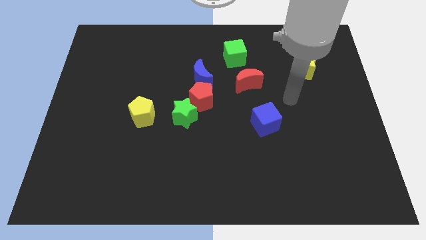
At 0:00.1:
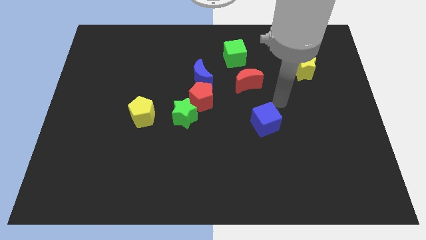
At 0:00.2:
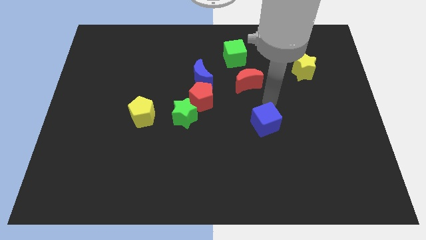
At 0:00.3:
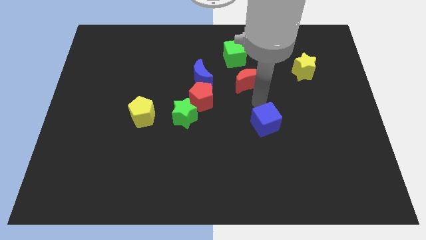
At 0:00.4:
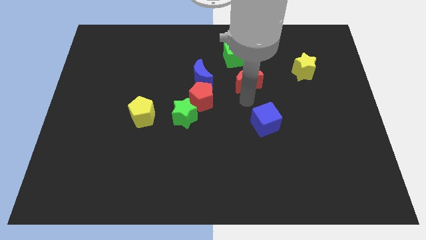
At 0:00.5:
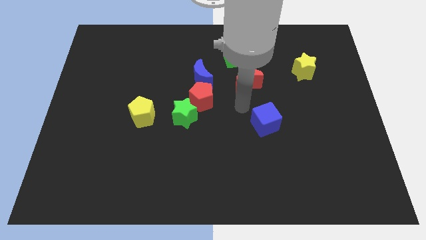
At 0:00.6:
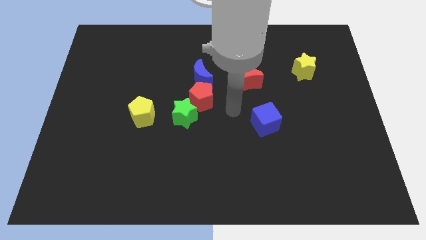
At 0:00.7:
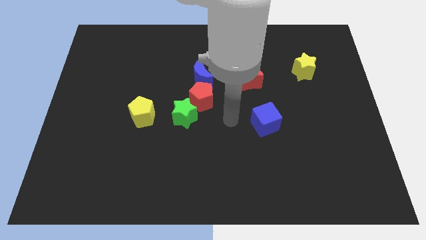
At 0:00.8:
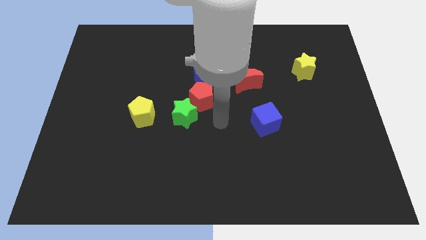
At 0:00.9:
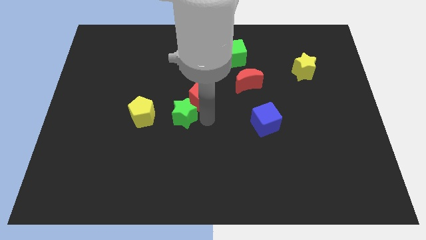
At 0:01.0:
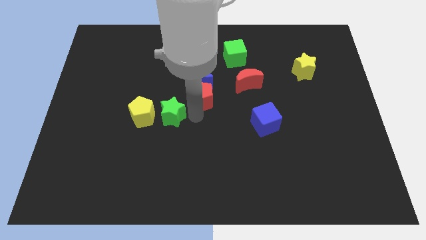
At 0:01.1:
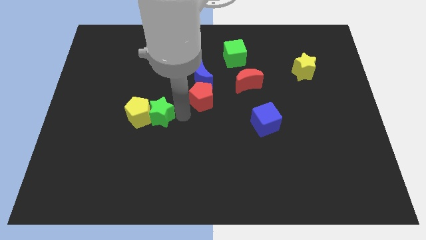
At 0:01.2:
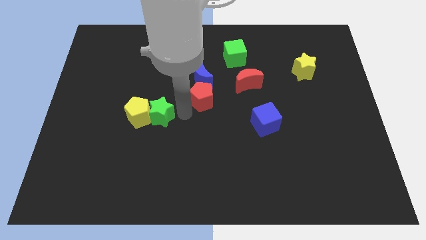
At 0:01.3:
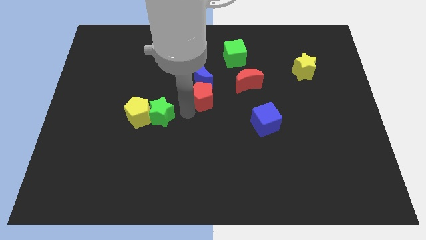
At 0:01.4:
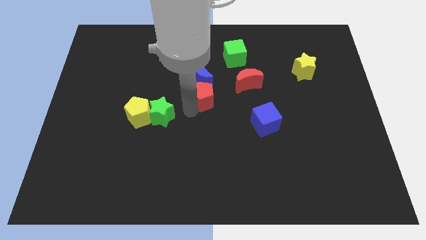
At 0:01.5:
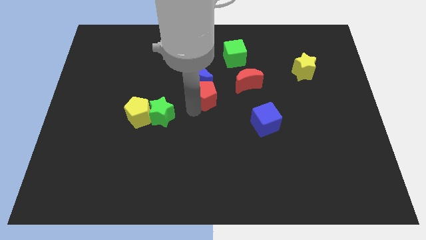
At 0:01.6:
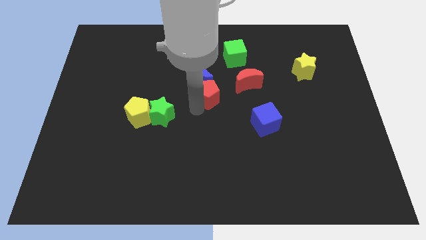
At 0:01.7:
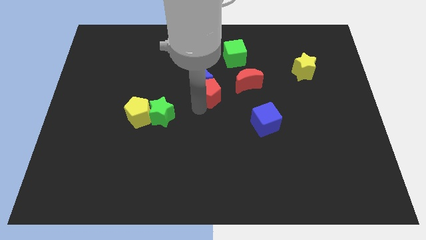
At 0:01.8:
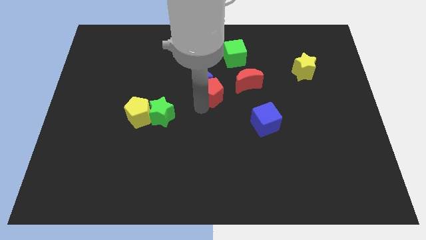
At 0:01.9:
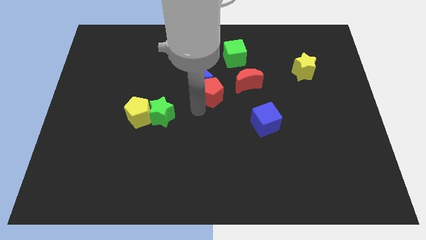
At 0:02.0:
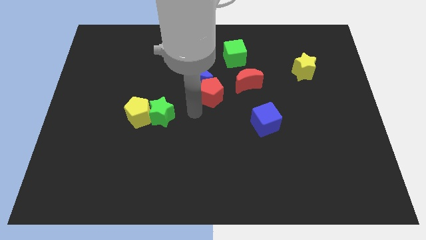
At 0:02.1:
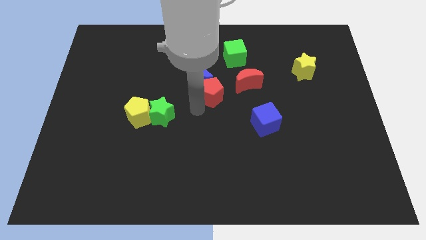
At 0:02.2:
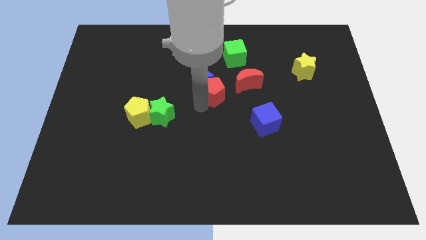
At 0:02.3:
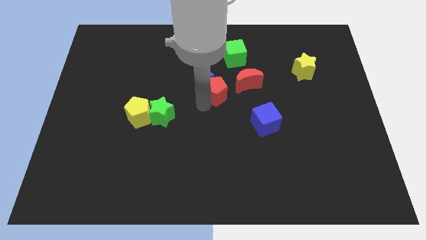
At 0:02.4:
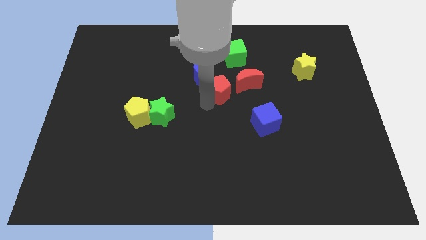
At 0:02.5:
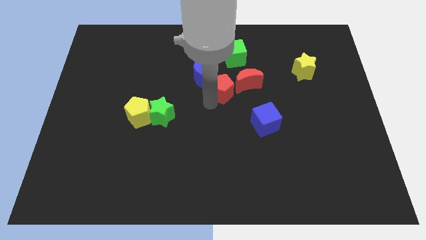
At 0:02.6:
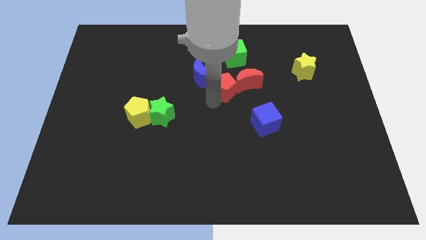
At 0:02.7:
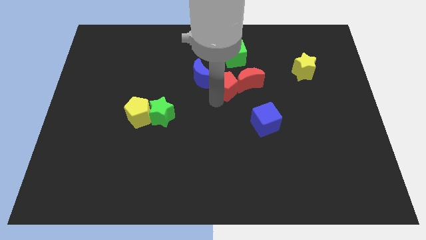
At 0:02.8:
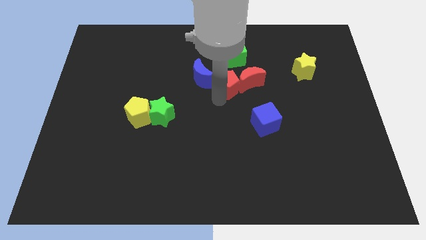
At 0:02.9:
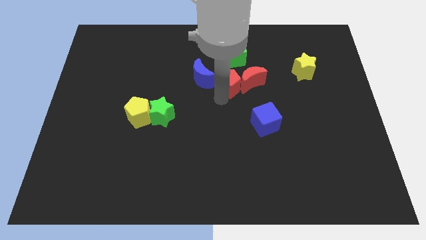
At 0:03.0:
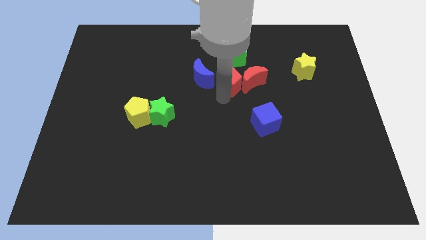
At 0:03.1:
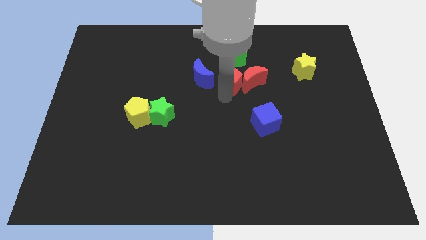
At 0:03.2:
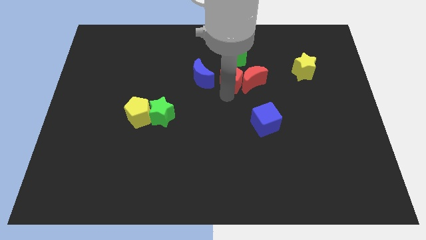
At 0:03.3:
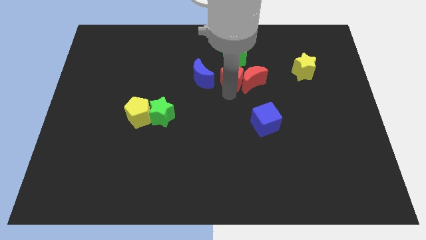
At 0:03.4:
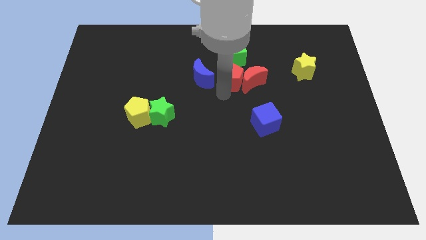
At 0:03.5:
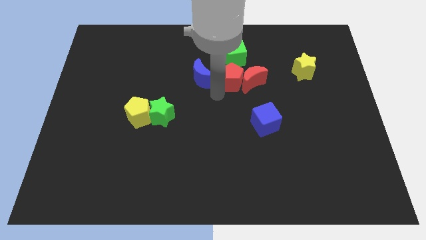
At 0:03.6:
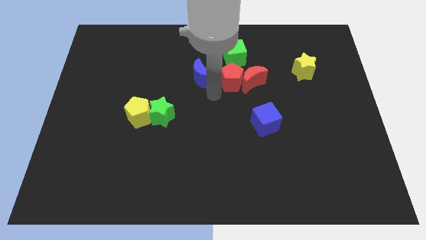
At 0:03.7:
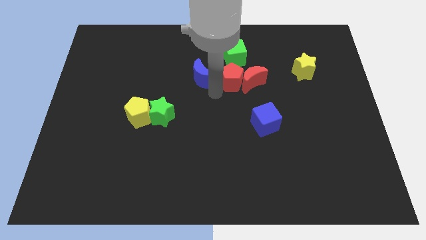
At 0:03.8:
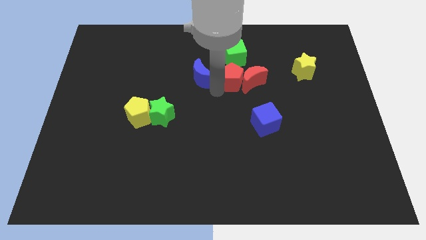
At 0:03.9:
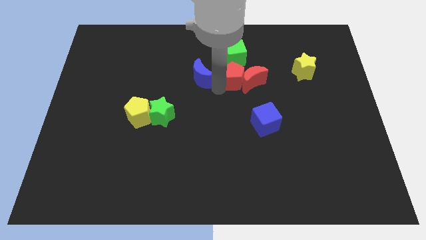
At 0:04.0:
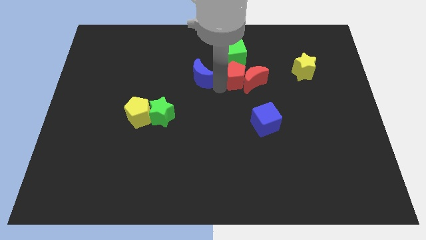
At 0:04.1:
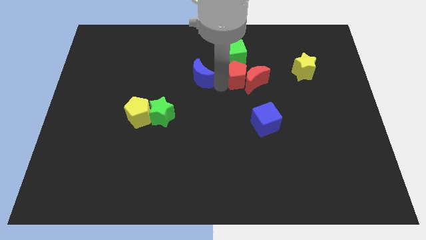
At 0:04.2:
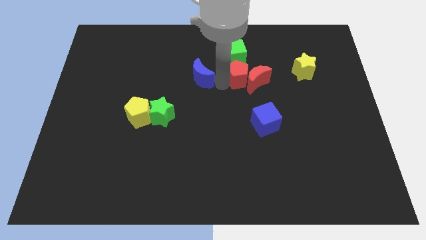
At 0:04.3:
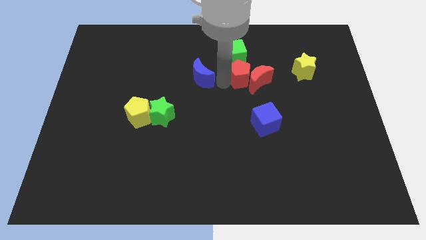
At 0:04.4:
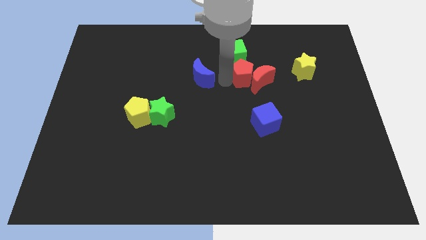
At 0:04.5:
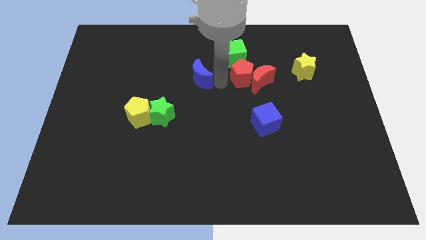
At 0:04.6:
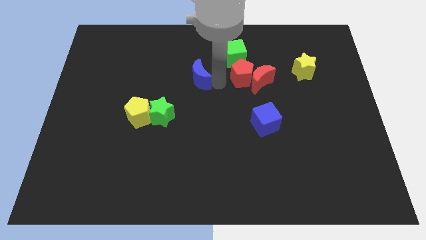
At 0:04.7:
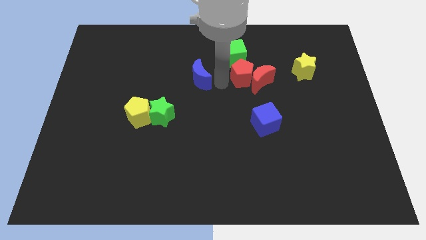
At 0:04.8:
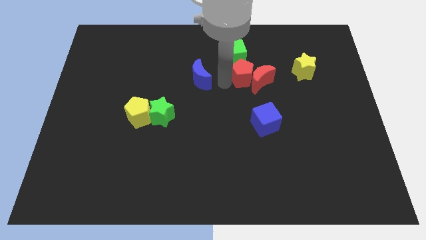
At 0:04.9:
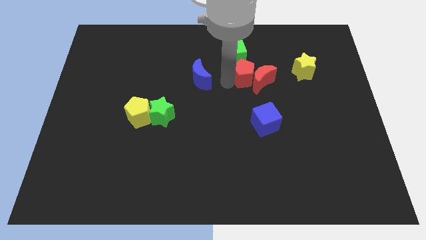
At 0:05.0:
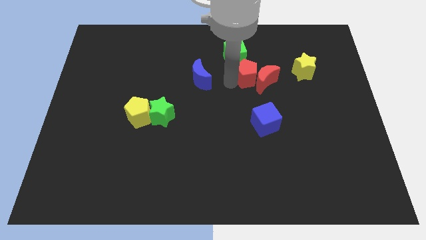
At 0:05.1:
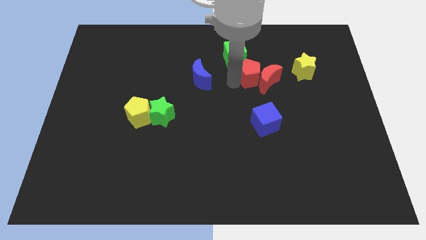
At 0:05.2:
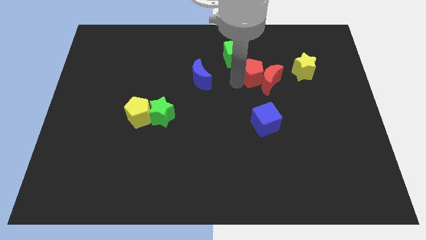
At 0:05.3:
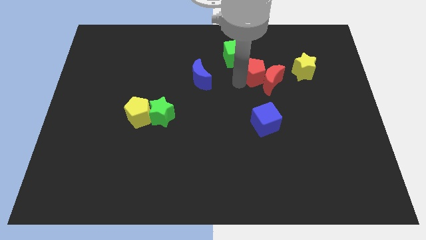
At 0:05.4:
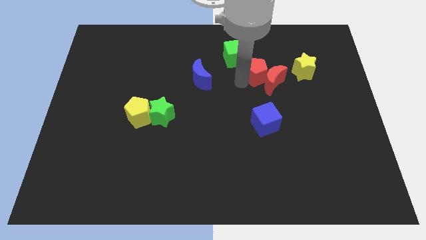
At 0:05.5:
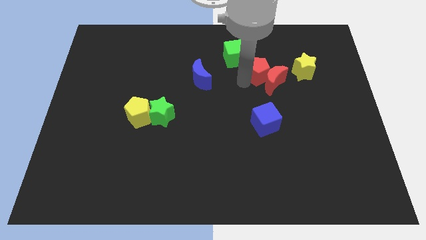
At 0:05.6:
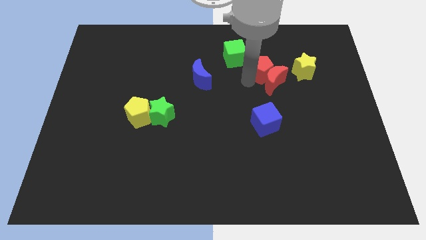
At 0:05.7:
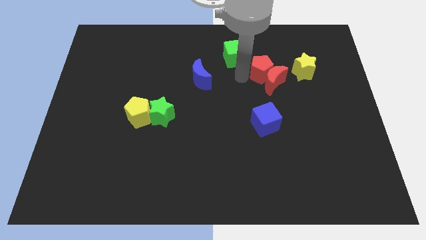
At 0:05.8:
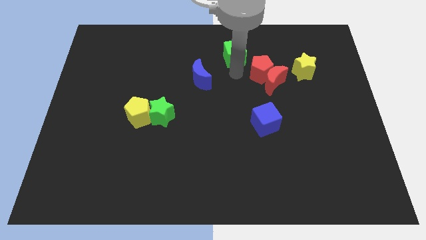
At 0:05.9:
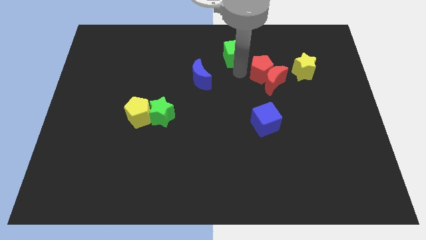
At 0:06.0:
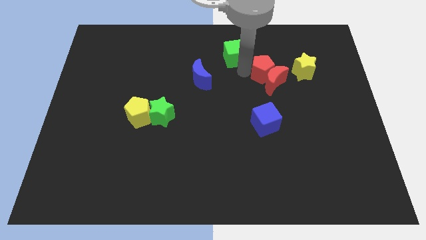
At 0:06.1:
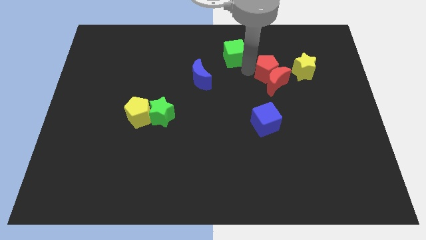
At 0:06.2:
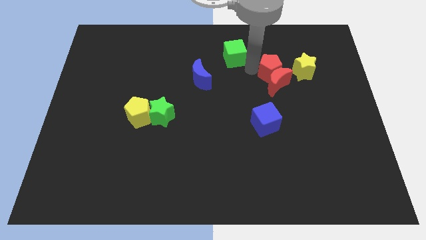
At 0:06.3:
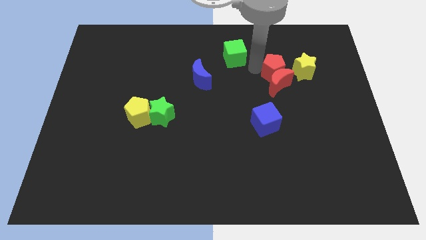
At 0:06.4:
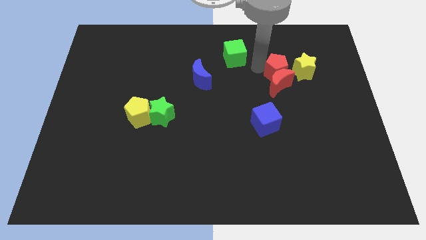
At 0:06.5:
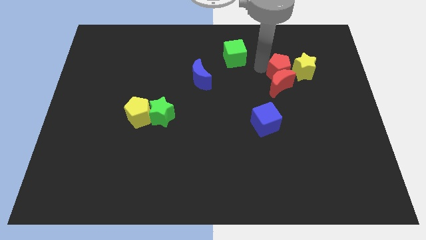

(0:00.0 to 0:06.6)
slide the red pentagon to the yellow star
